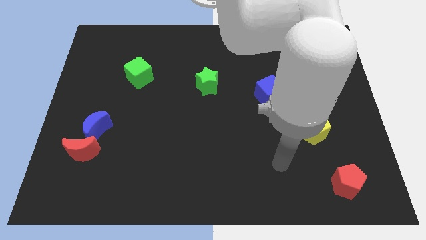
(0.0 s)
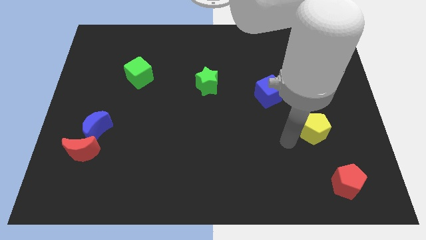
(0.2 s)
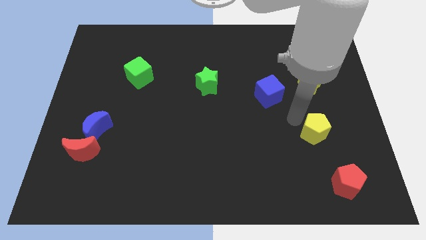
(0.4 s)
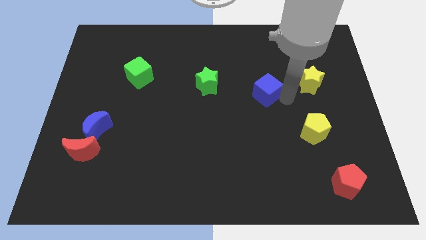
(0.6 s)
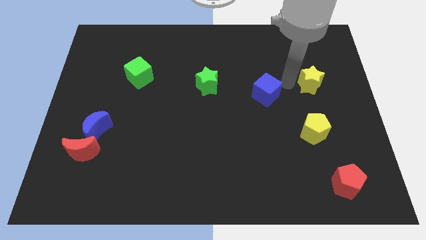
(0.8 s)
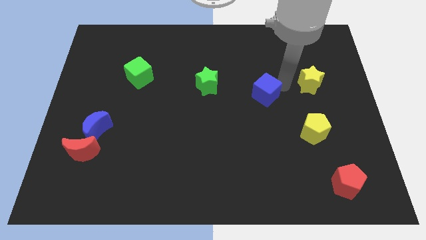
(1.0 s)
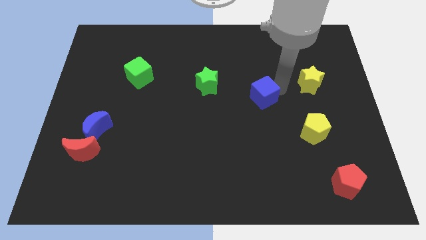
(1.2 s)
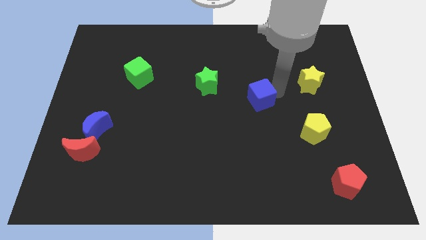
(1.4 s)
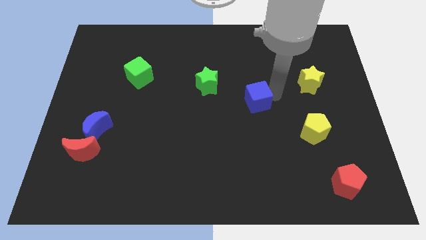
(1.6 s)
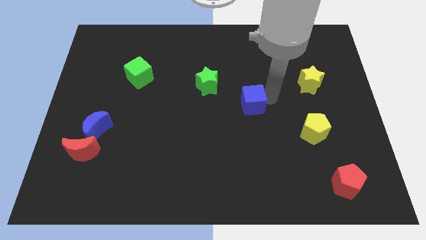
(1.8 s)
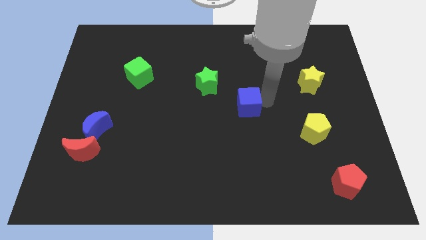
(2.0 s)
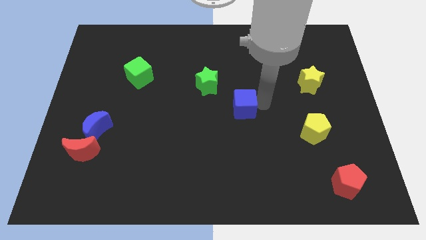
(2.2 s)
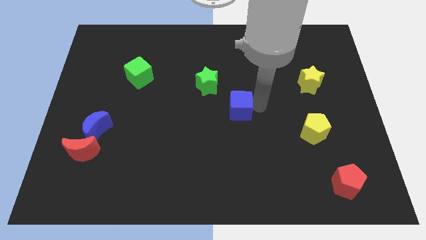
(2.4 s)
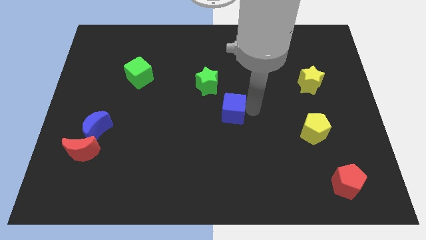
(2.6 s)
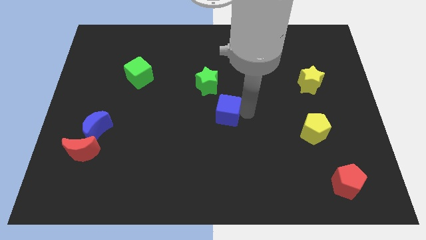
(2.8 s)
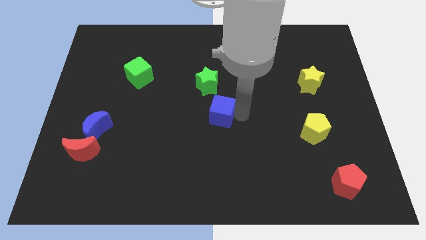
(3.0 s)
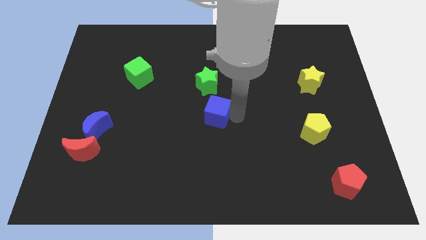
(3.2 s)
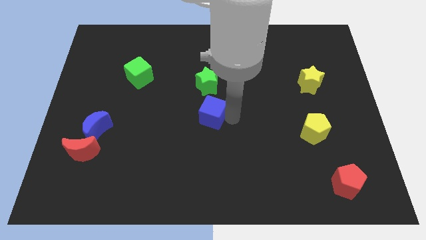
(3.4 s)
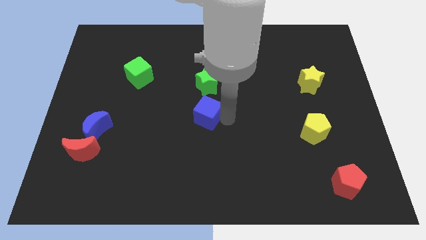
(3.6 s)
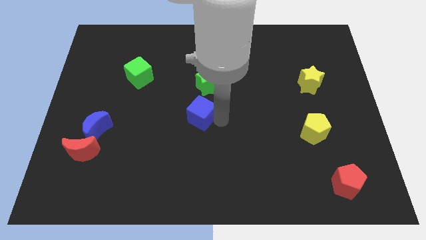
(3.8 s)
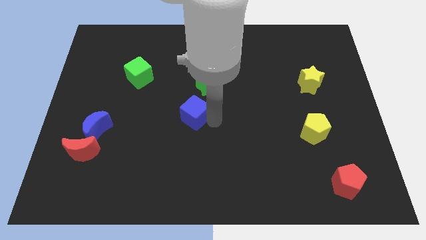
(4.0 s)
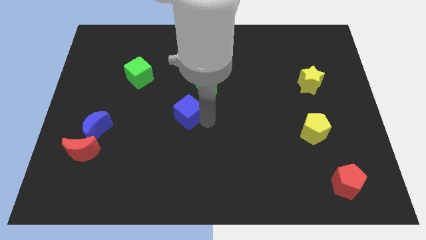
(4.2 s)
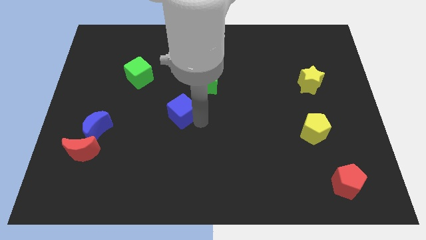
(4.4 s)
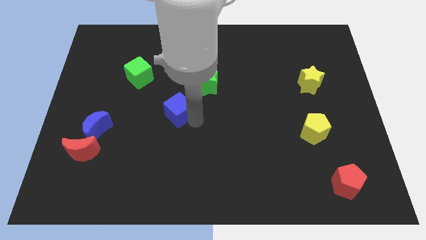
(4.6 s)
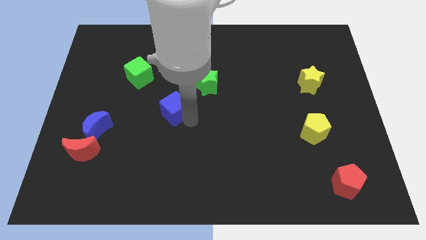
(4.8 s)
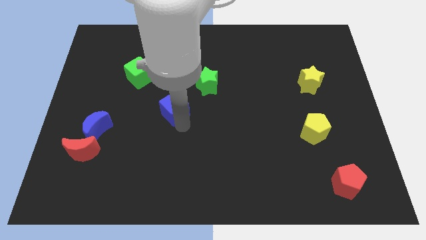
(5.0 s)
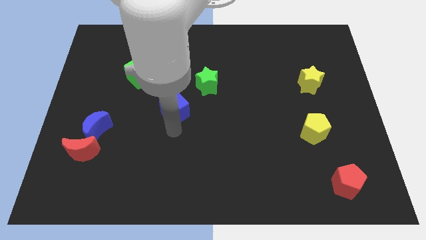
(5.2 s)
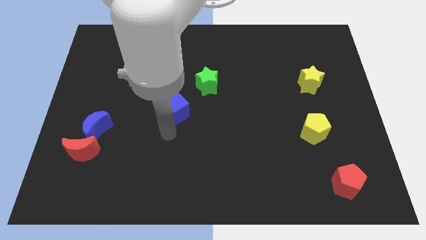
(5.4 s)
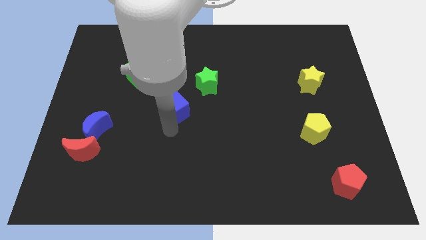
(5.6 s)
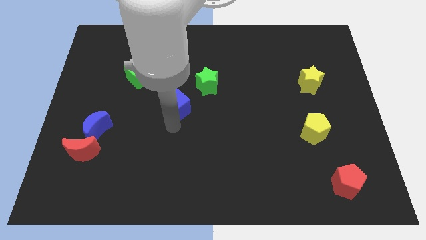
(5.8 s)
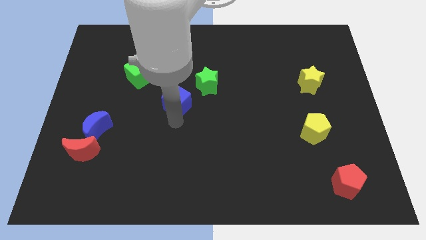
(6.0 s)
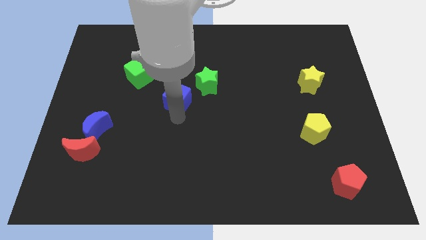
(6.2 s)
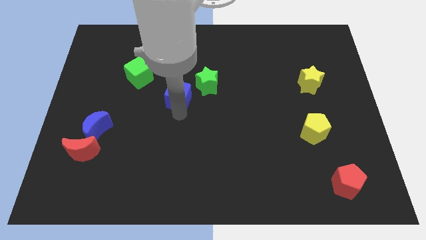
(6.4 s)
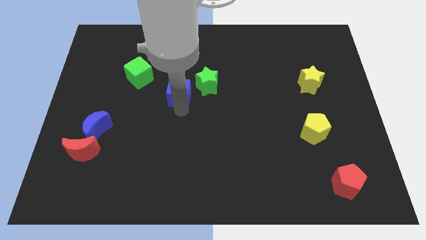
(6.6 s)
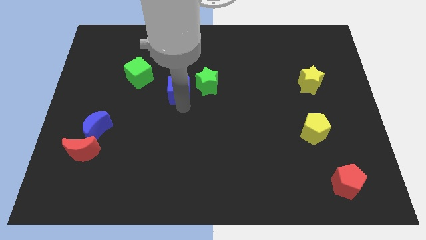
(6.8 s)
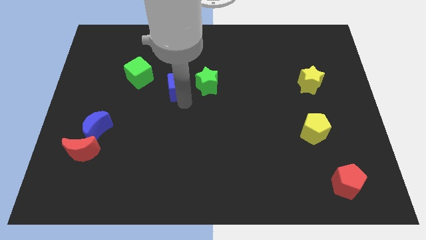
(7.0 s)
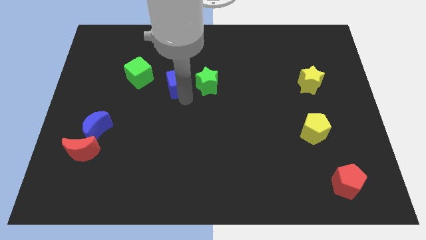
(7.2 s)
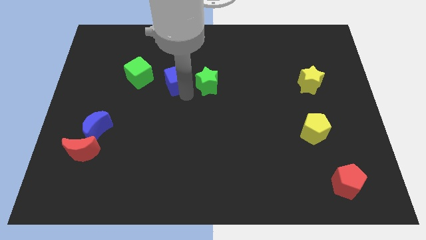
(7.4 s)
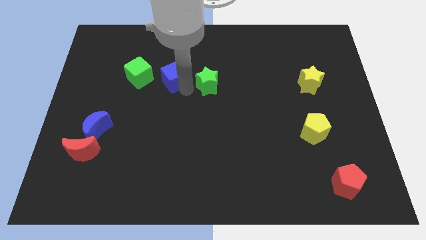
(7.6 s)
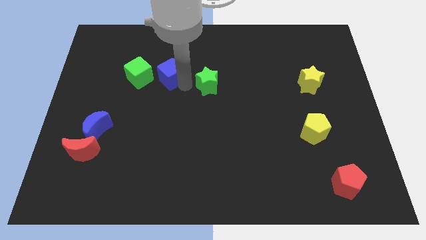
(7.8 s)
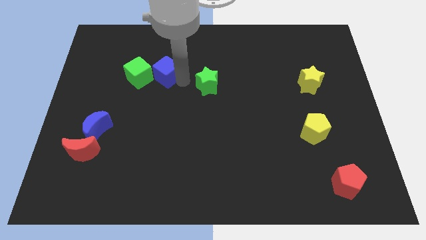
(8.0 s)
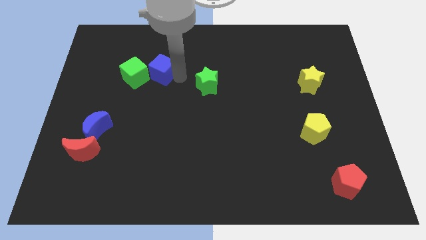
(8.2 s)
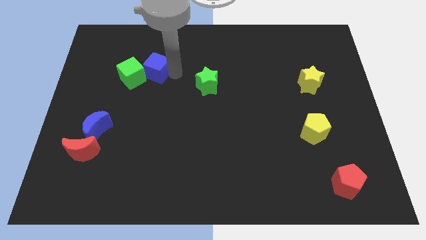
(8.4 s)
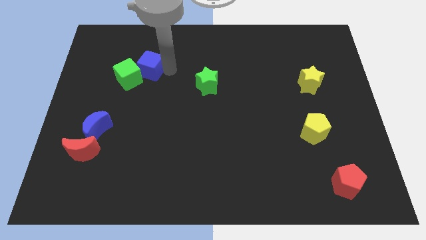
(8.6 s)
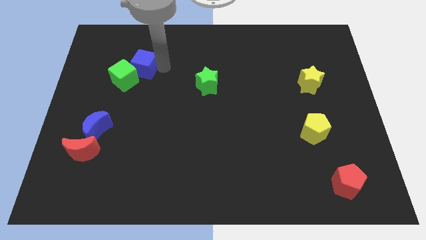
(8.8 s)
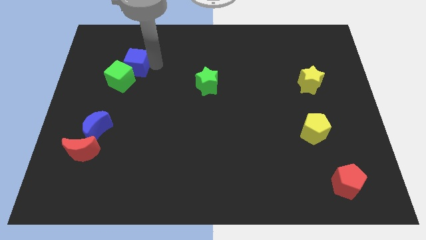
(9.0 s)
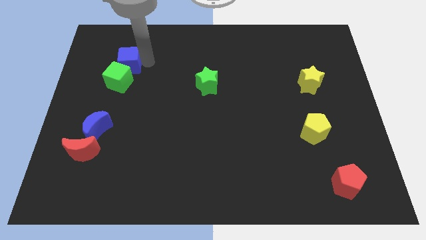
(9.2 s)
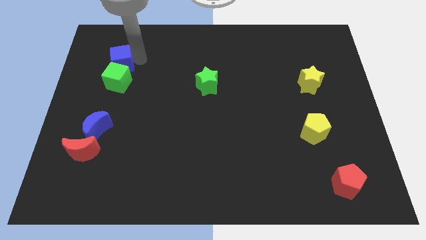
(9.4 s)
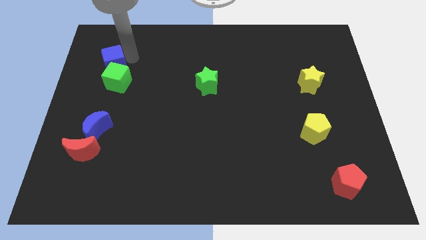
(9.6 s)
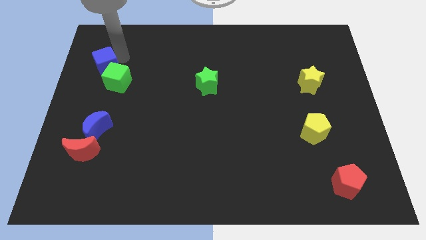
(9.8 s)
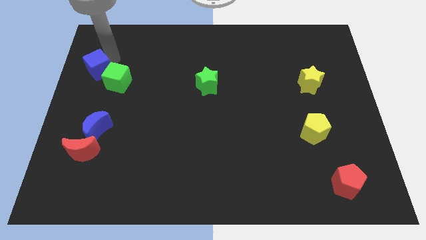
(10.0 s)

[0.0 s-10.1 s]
move the blue cube to the left side

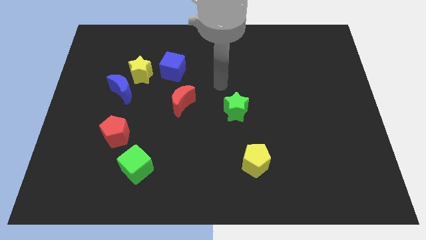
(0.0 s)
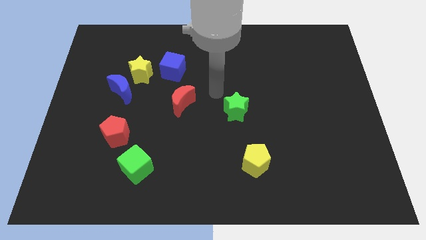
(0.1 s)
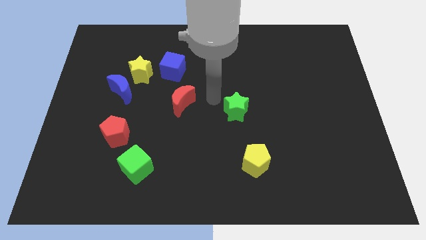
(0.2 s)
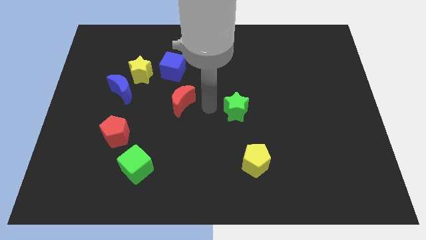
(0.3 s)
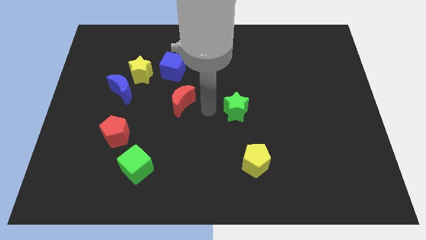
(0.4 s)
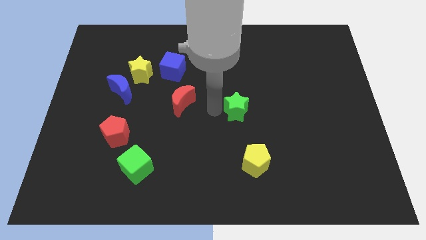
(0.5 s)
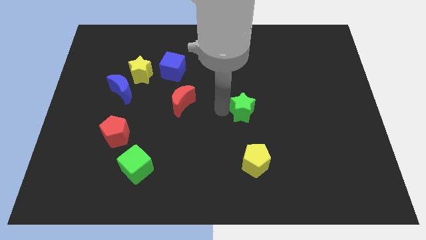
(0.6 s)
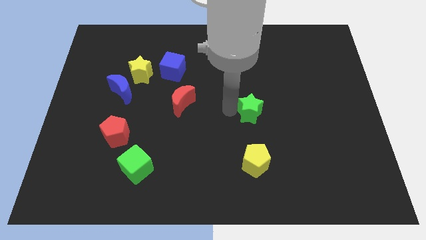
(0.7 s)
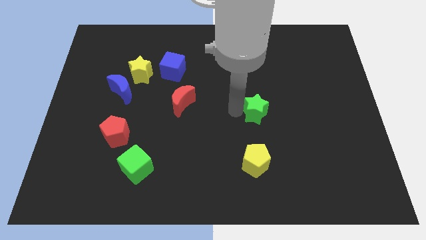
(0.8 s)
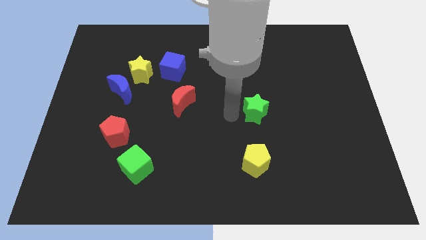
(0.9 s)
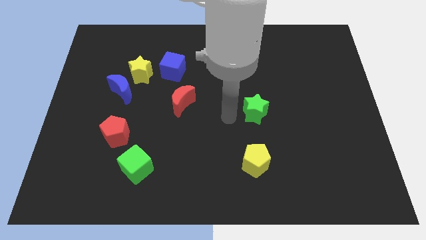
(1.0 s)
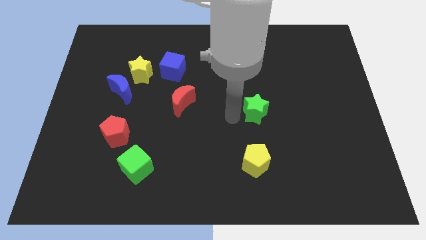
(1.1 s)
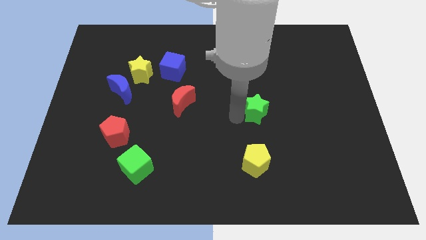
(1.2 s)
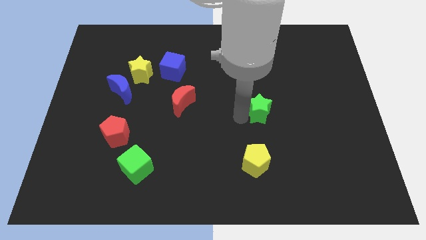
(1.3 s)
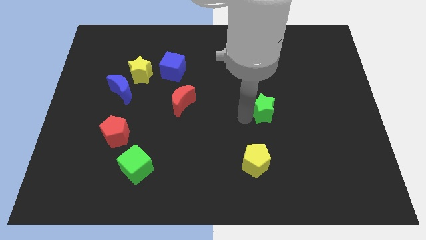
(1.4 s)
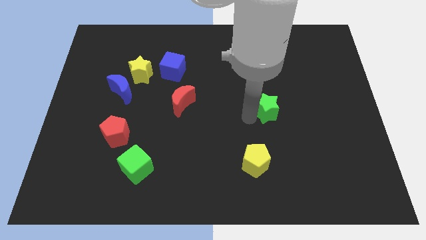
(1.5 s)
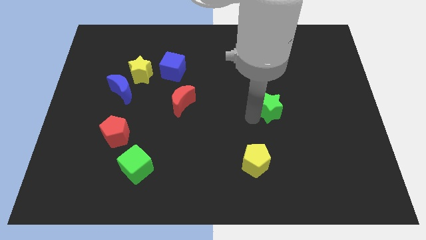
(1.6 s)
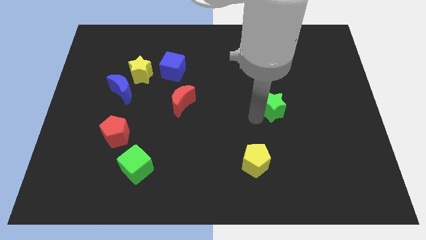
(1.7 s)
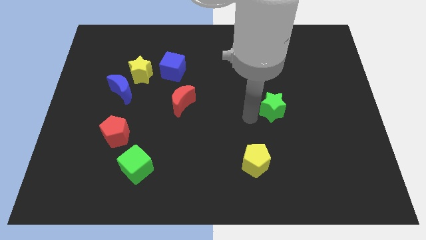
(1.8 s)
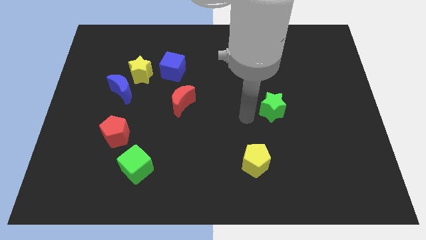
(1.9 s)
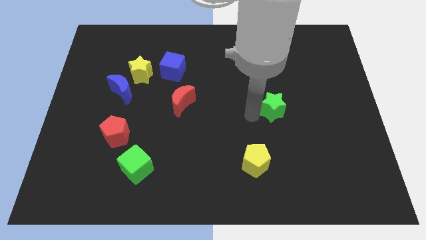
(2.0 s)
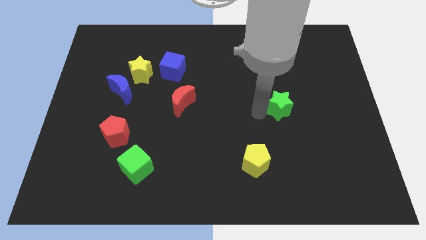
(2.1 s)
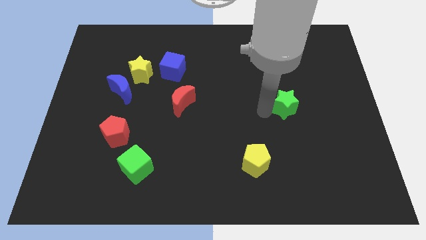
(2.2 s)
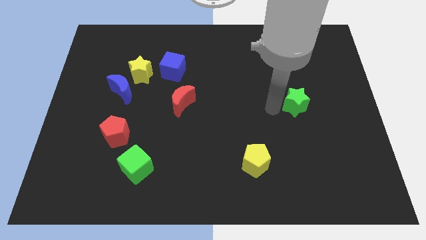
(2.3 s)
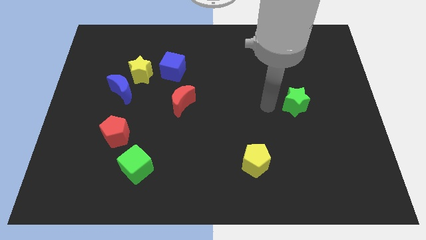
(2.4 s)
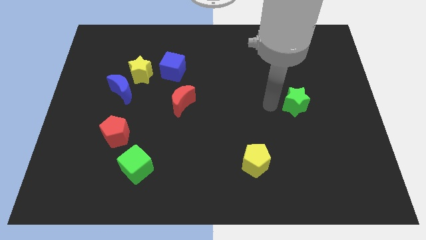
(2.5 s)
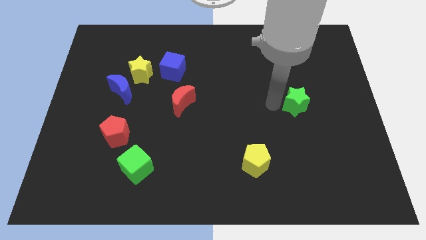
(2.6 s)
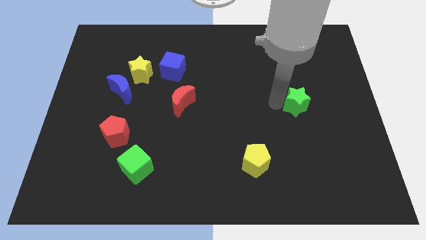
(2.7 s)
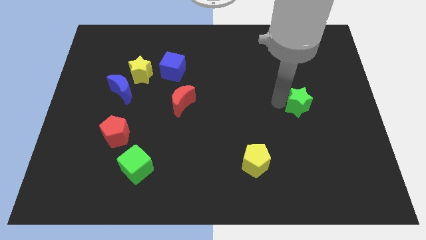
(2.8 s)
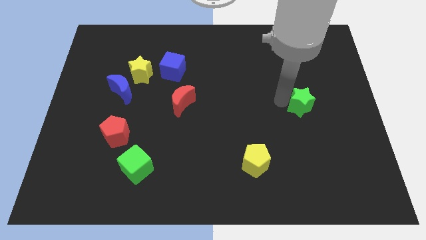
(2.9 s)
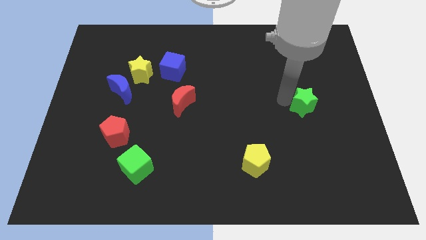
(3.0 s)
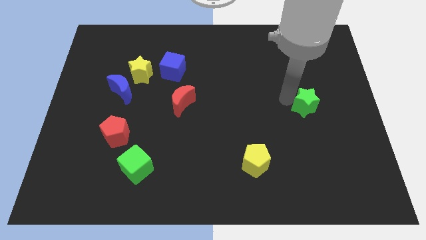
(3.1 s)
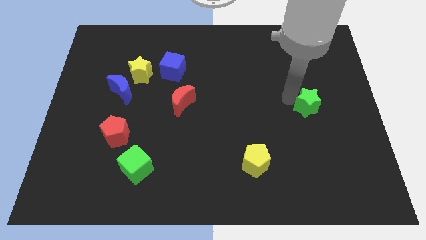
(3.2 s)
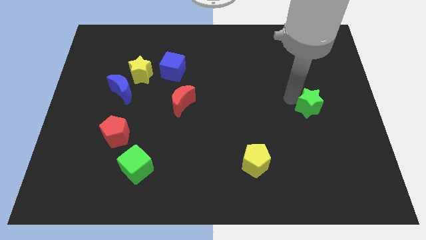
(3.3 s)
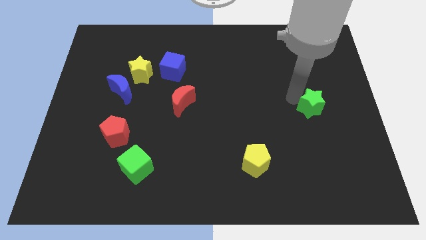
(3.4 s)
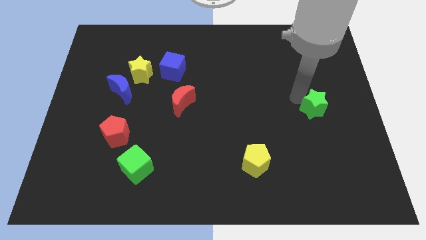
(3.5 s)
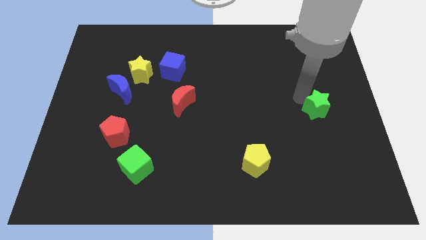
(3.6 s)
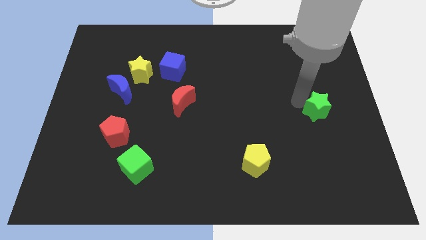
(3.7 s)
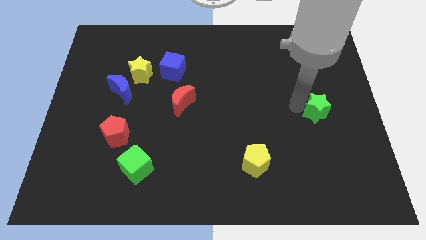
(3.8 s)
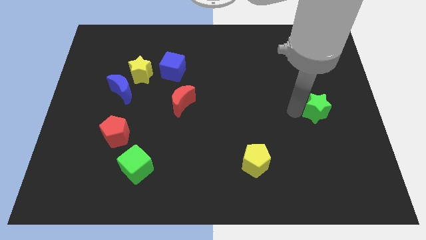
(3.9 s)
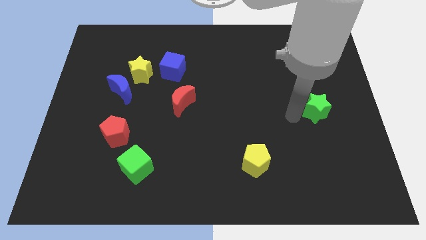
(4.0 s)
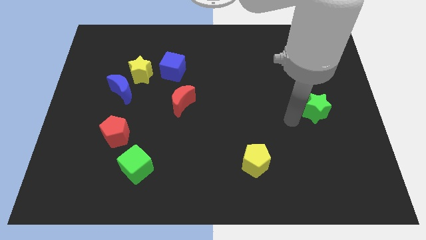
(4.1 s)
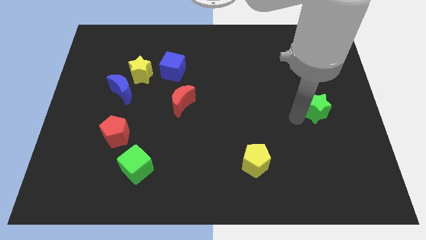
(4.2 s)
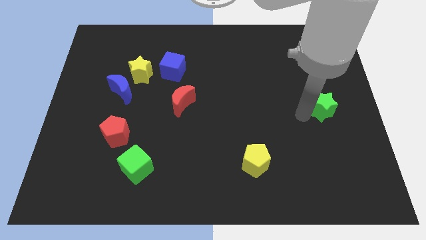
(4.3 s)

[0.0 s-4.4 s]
slide the green star to the right side of the board
